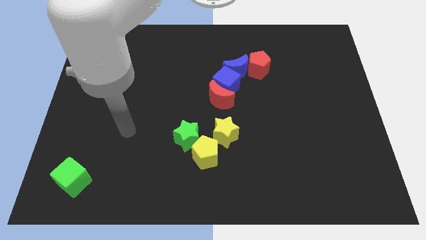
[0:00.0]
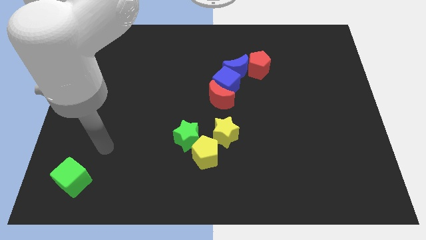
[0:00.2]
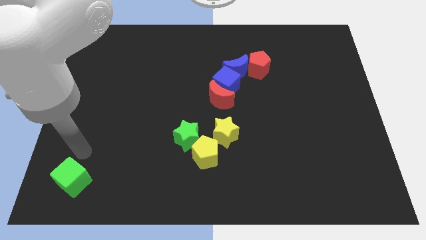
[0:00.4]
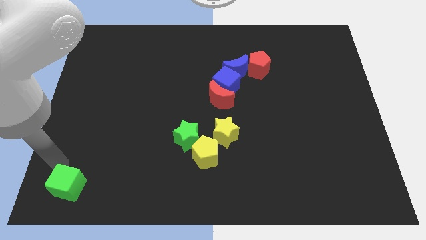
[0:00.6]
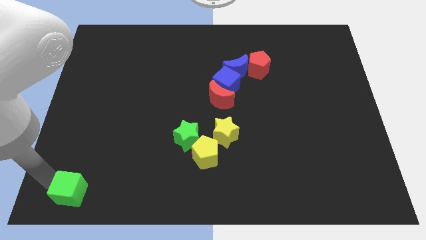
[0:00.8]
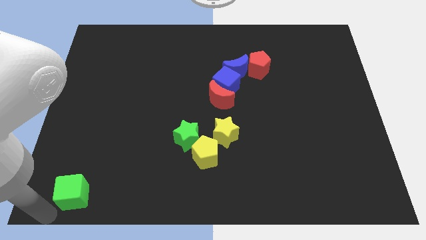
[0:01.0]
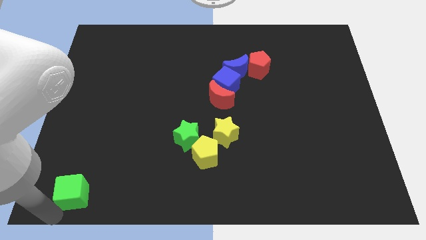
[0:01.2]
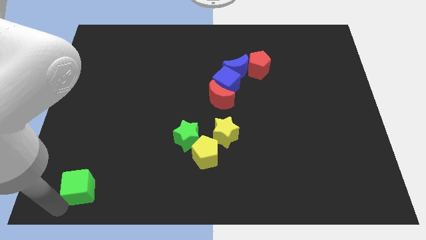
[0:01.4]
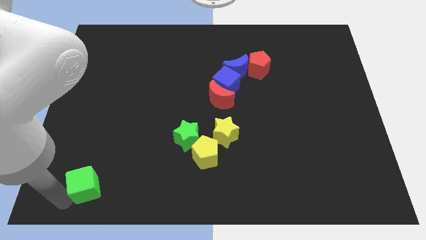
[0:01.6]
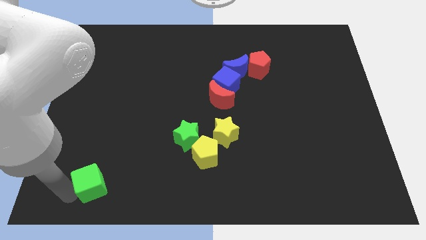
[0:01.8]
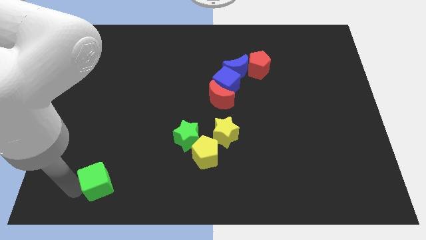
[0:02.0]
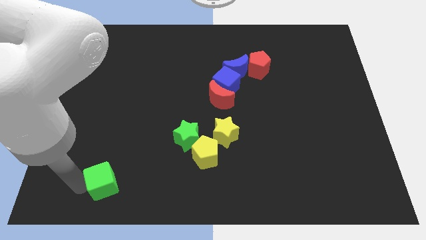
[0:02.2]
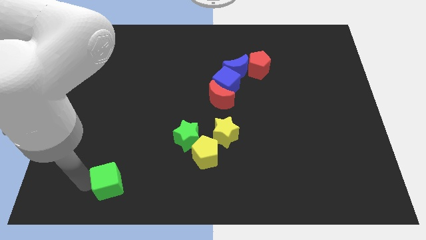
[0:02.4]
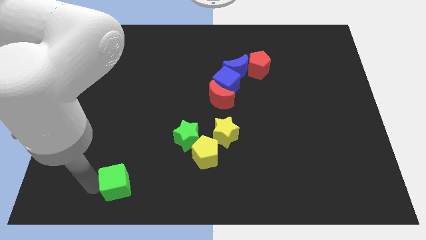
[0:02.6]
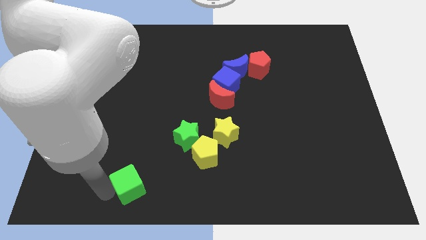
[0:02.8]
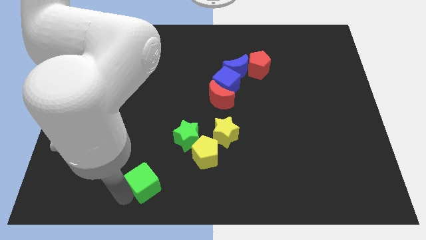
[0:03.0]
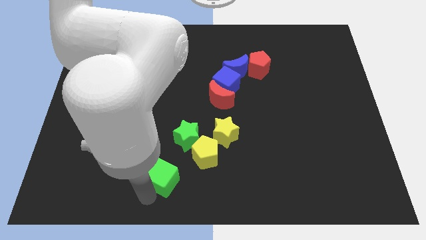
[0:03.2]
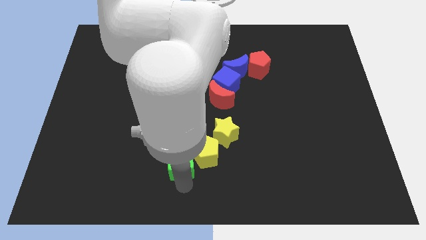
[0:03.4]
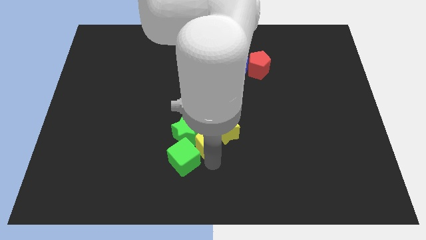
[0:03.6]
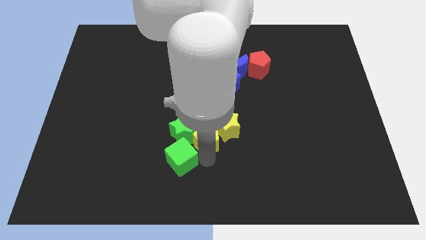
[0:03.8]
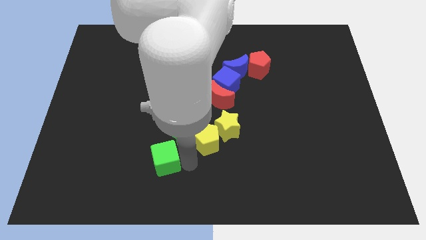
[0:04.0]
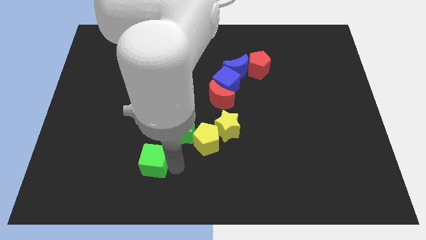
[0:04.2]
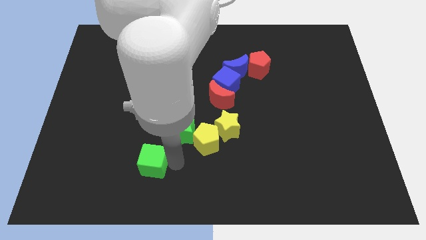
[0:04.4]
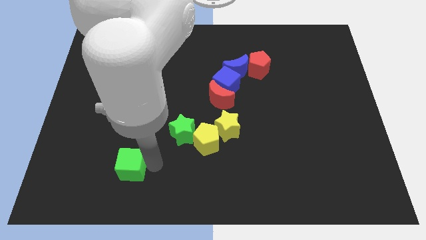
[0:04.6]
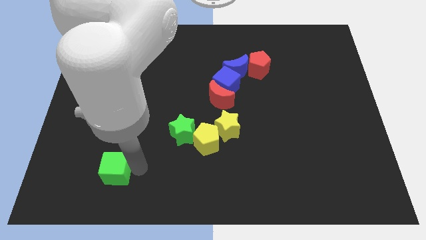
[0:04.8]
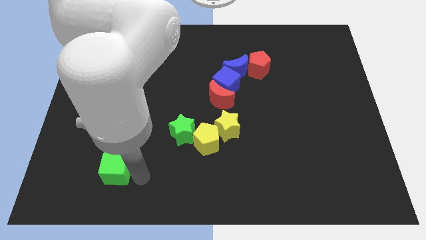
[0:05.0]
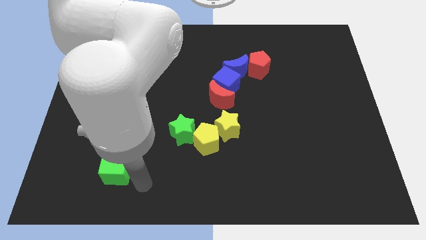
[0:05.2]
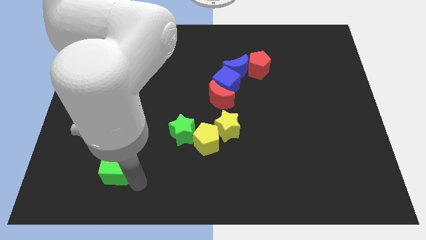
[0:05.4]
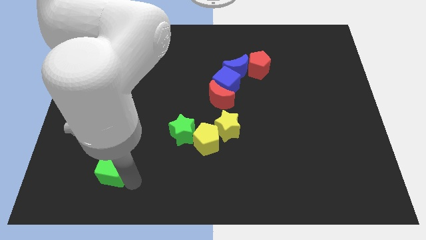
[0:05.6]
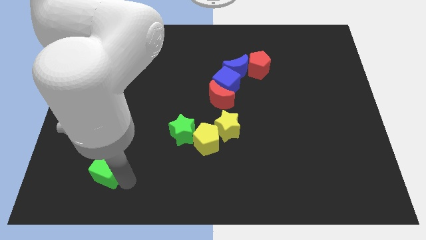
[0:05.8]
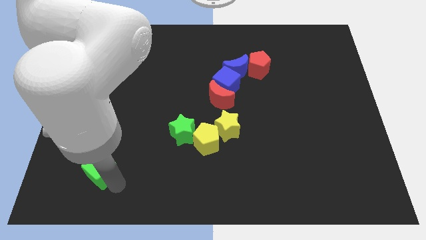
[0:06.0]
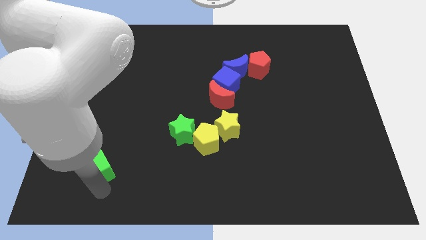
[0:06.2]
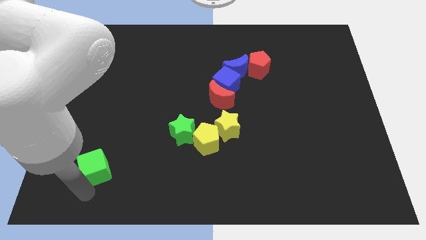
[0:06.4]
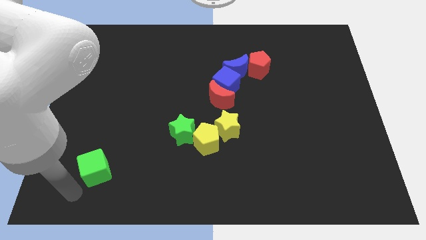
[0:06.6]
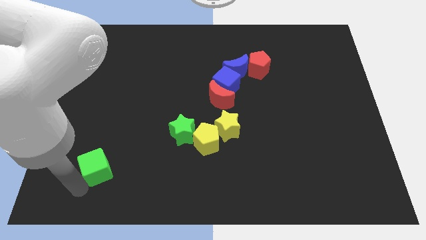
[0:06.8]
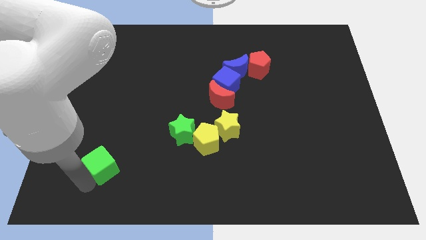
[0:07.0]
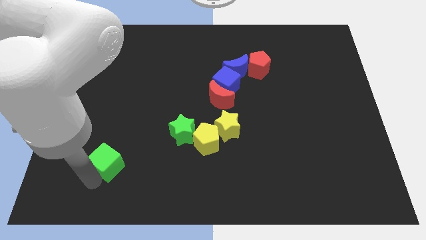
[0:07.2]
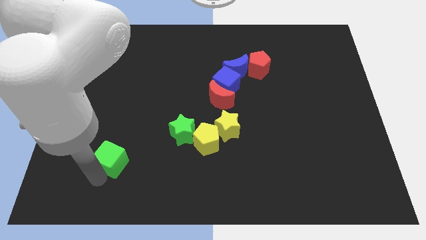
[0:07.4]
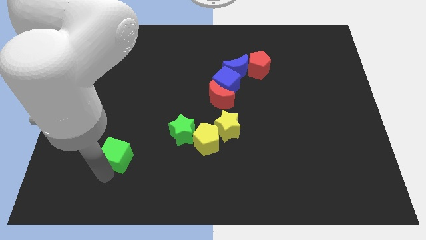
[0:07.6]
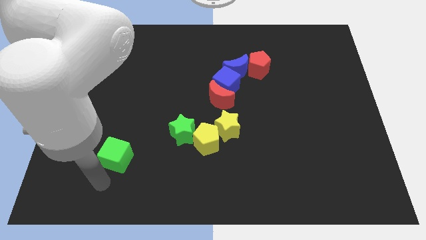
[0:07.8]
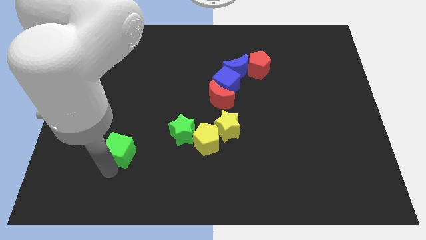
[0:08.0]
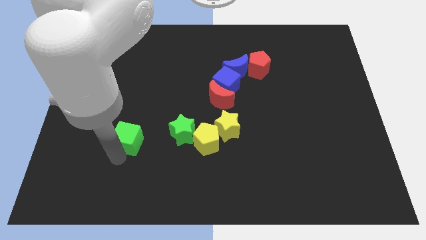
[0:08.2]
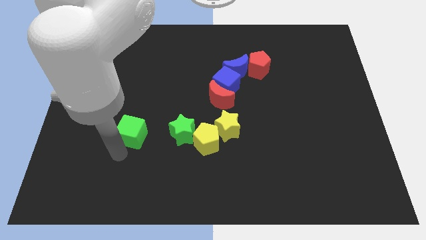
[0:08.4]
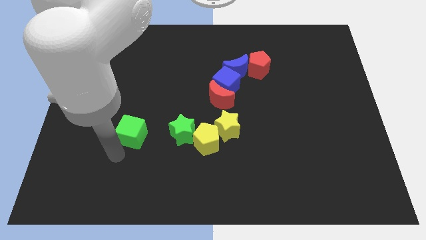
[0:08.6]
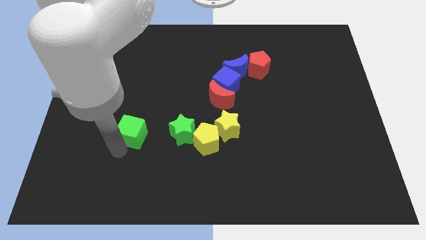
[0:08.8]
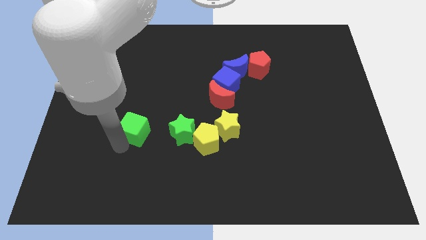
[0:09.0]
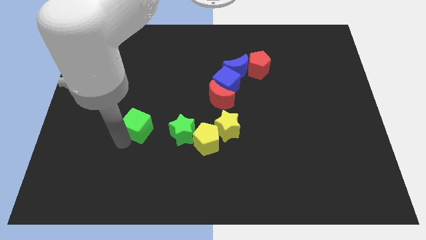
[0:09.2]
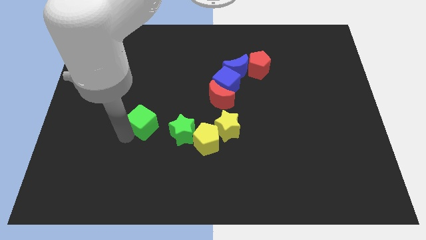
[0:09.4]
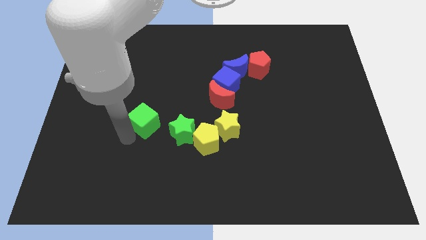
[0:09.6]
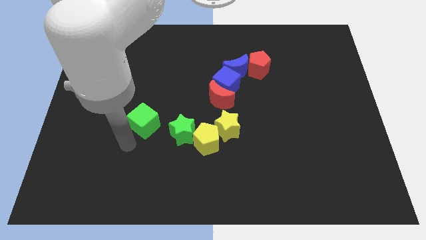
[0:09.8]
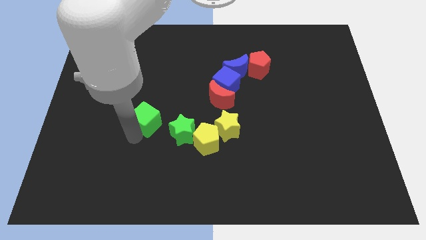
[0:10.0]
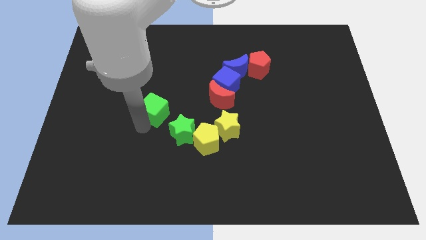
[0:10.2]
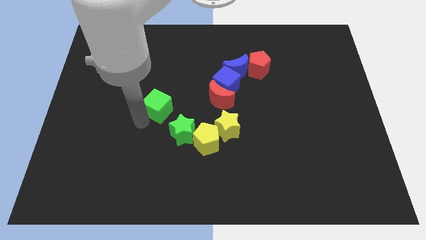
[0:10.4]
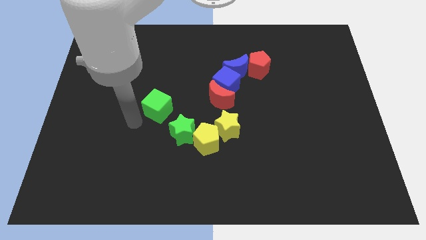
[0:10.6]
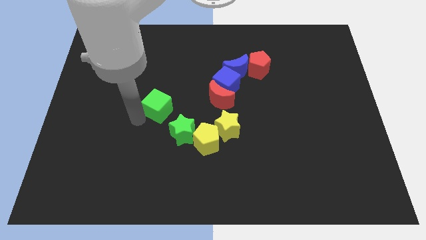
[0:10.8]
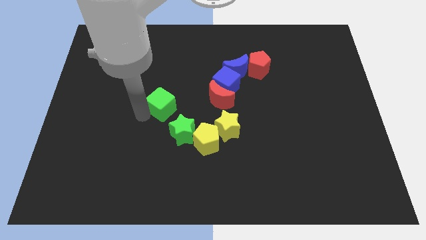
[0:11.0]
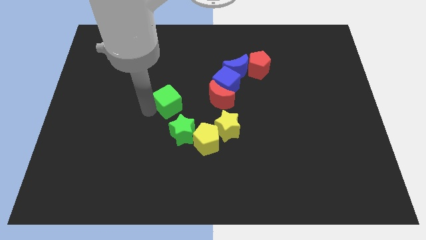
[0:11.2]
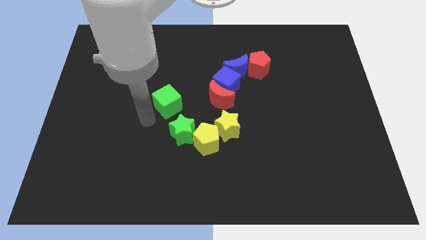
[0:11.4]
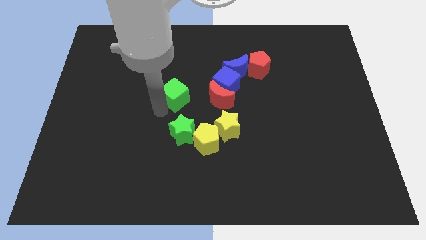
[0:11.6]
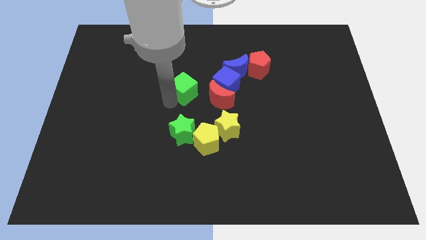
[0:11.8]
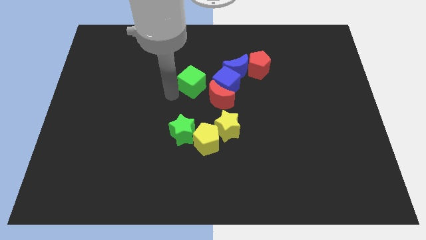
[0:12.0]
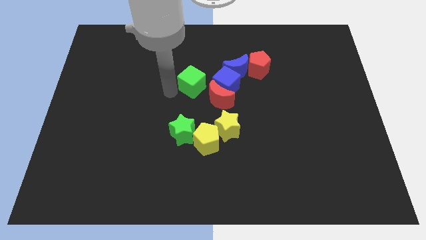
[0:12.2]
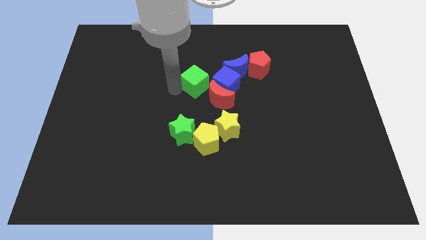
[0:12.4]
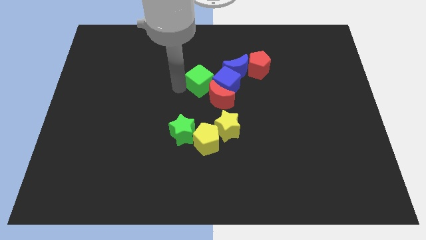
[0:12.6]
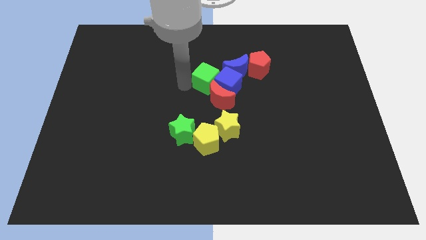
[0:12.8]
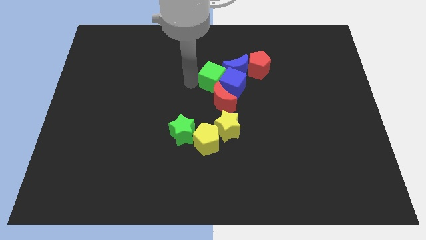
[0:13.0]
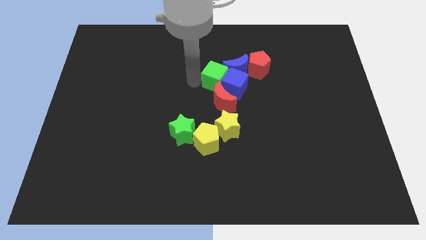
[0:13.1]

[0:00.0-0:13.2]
push the green cube towards the blue moon
